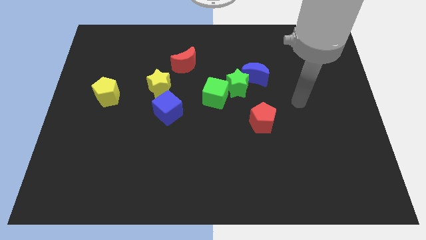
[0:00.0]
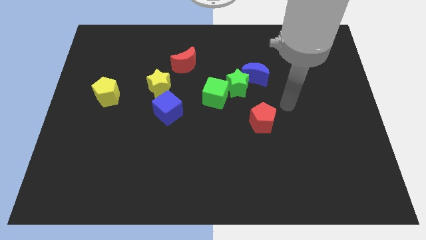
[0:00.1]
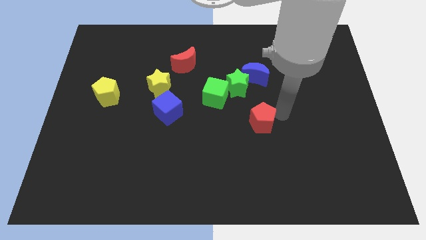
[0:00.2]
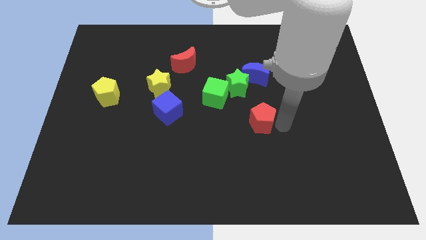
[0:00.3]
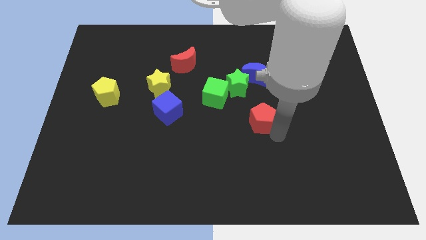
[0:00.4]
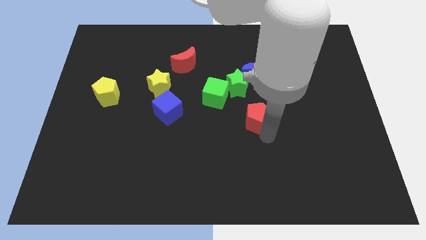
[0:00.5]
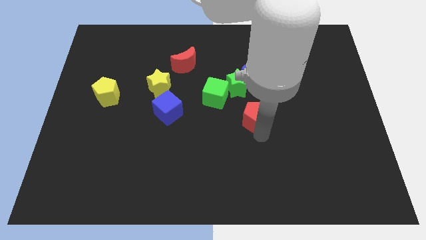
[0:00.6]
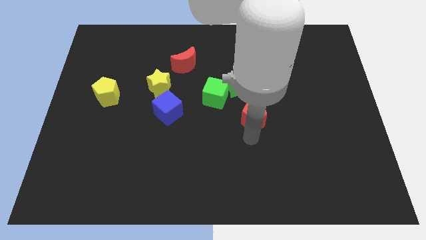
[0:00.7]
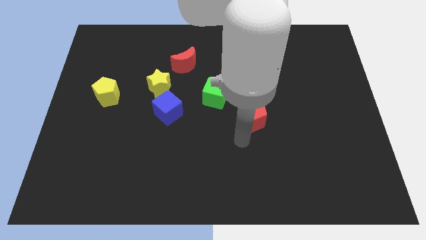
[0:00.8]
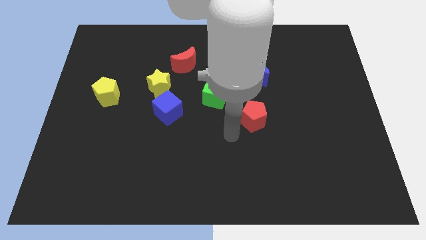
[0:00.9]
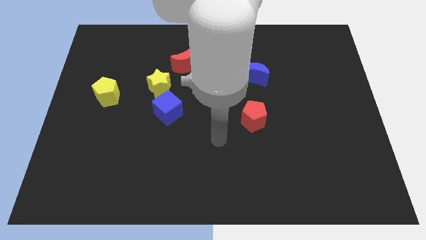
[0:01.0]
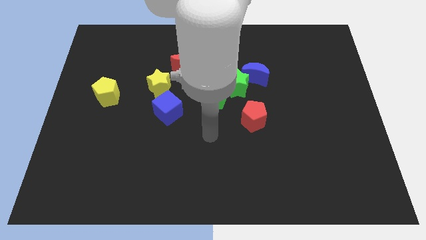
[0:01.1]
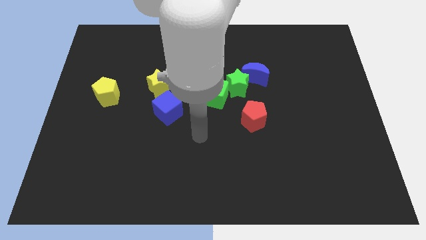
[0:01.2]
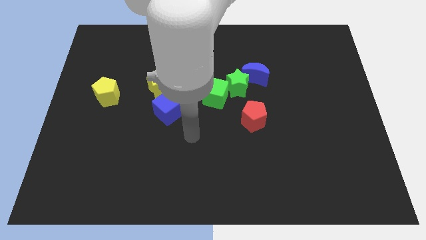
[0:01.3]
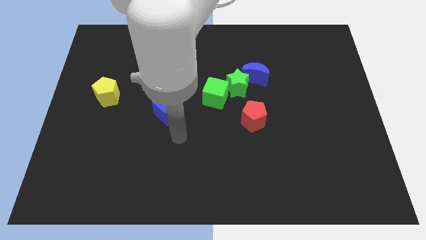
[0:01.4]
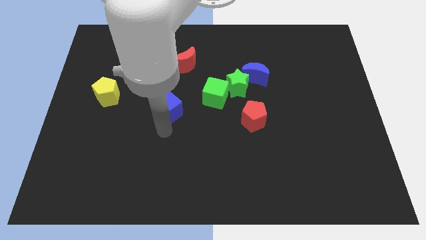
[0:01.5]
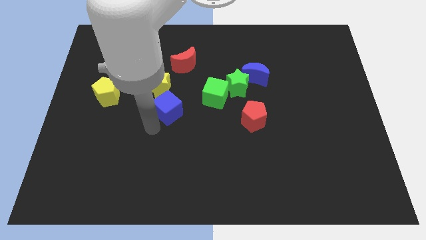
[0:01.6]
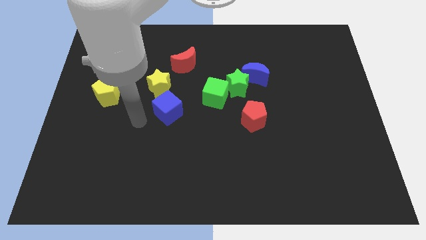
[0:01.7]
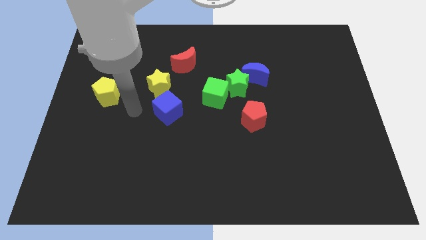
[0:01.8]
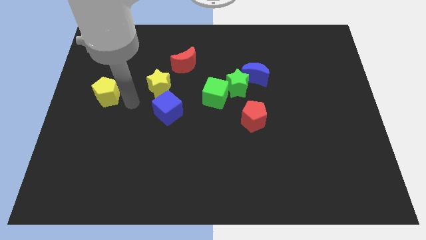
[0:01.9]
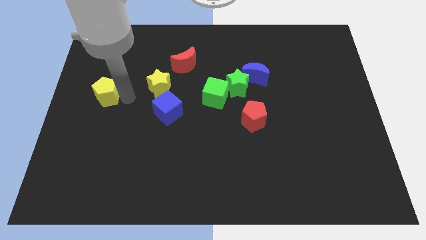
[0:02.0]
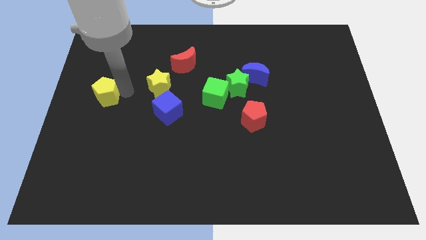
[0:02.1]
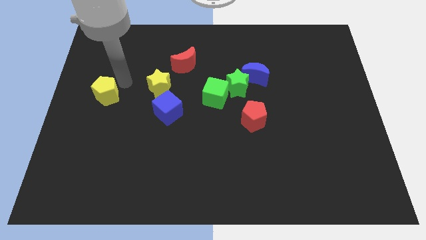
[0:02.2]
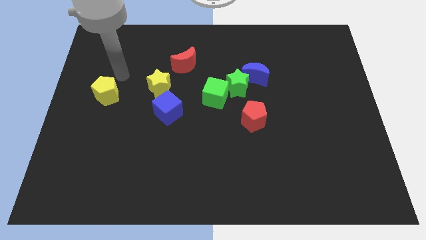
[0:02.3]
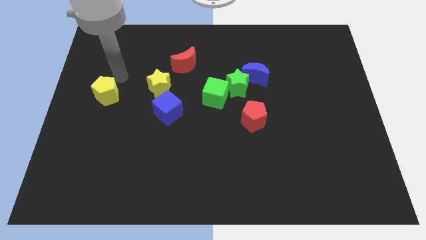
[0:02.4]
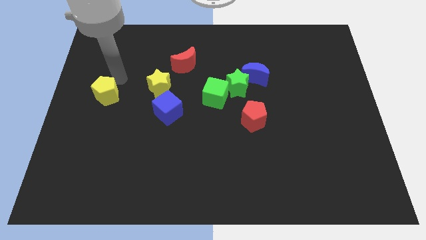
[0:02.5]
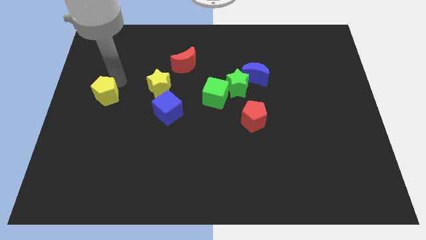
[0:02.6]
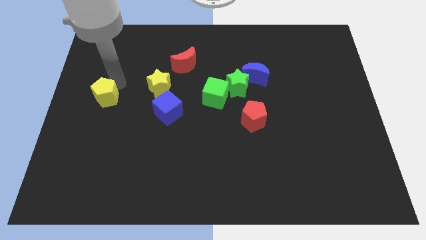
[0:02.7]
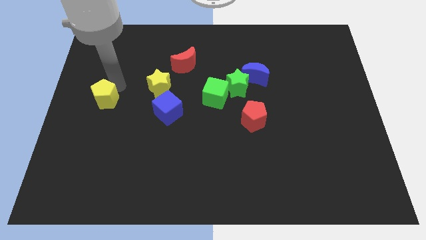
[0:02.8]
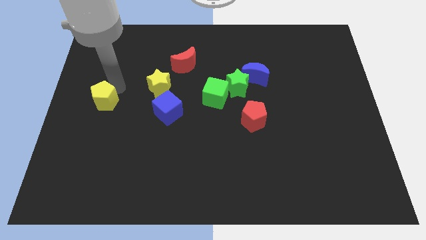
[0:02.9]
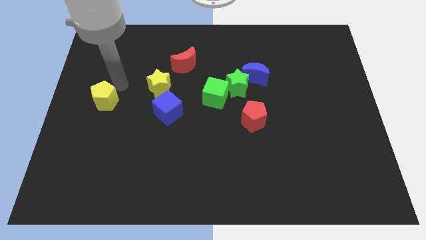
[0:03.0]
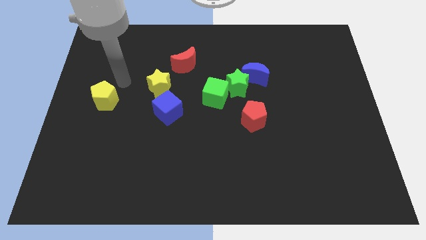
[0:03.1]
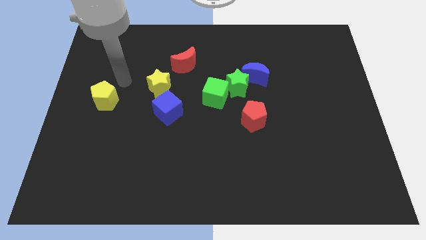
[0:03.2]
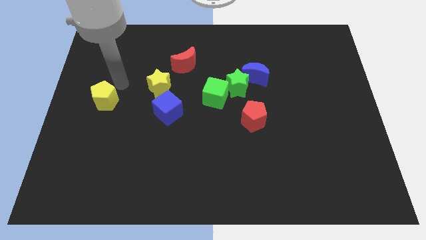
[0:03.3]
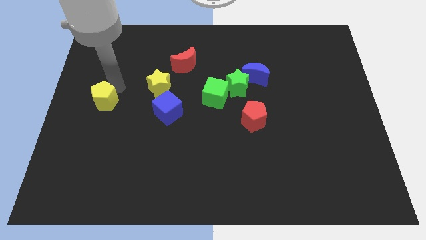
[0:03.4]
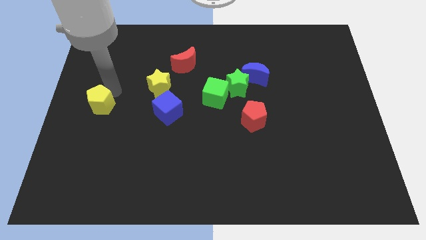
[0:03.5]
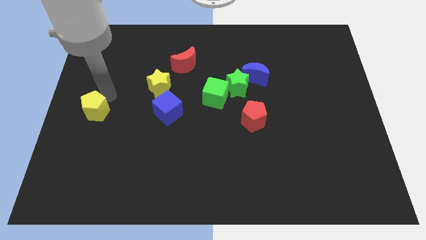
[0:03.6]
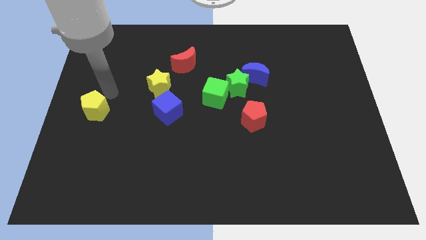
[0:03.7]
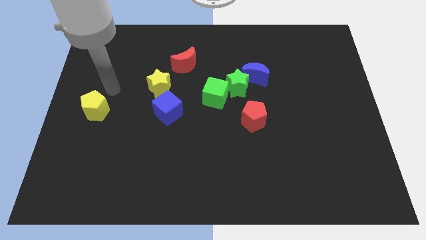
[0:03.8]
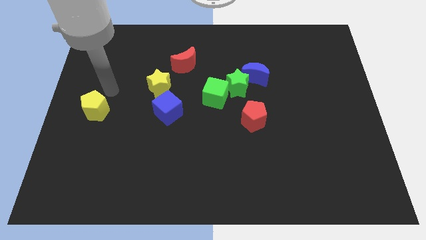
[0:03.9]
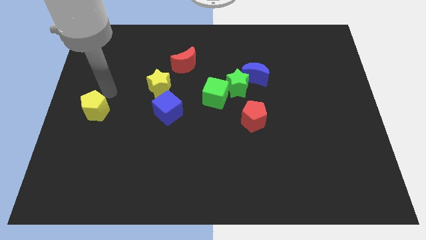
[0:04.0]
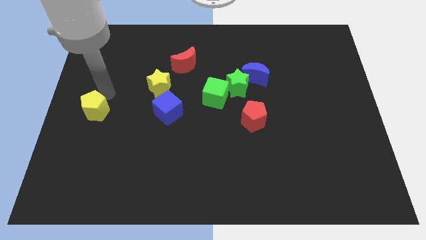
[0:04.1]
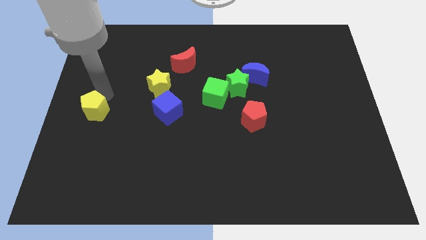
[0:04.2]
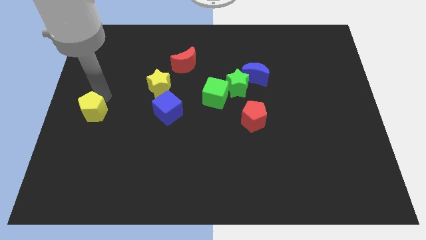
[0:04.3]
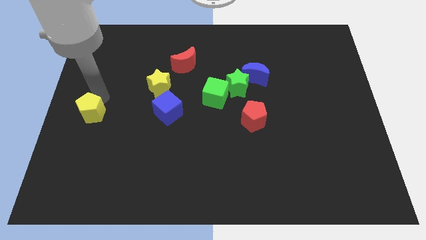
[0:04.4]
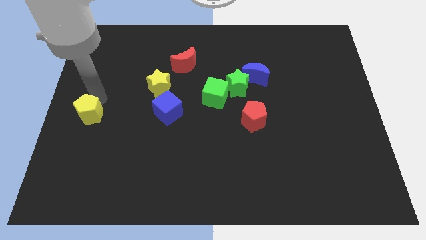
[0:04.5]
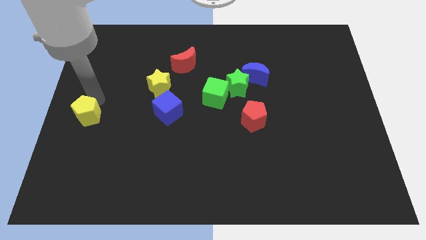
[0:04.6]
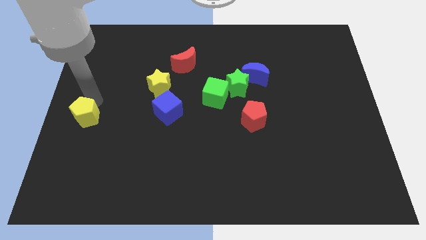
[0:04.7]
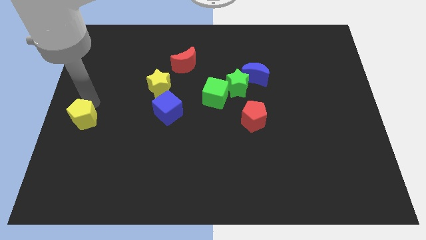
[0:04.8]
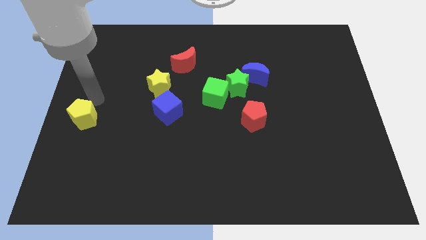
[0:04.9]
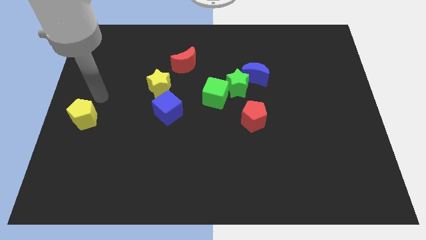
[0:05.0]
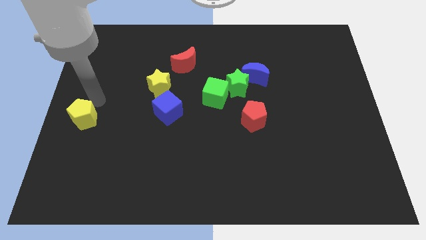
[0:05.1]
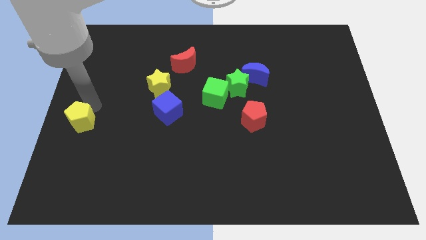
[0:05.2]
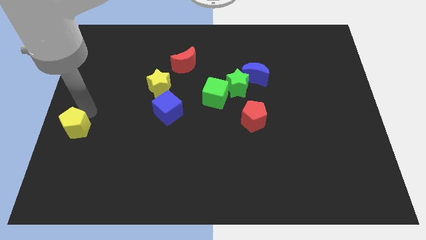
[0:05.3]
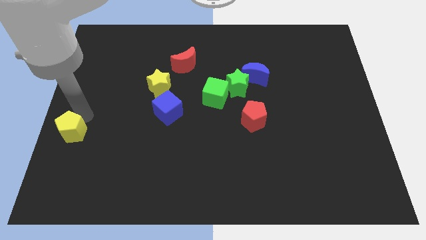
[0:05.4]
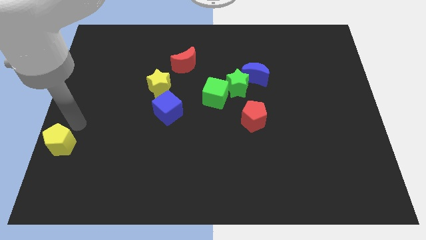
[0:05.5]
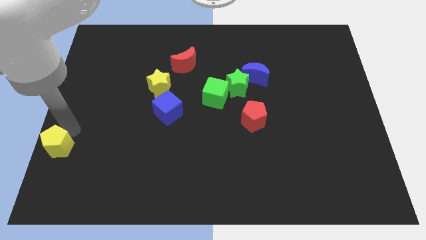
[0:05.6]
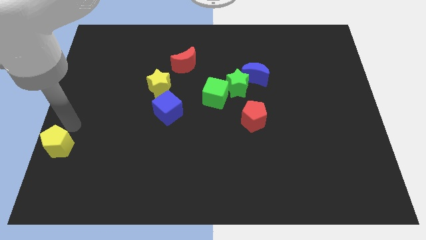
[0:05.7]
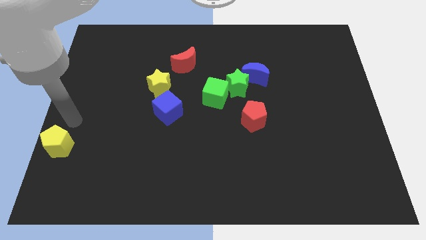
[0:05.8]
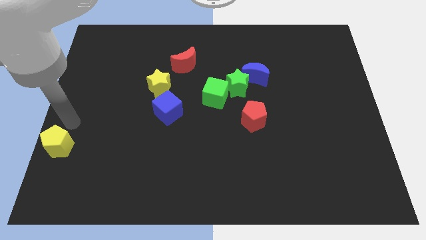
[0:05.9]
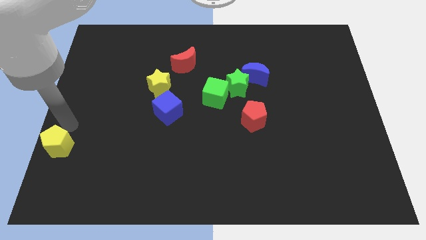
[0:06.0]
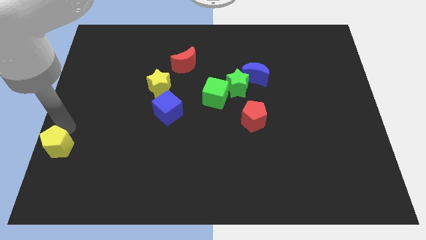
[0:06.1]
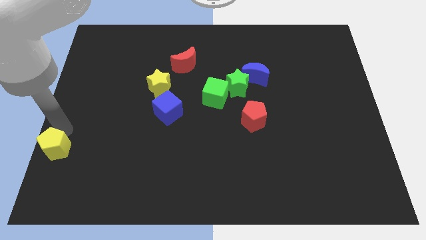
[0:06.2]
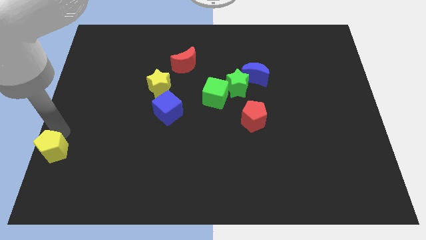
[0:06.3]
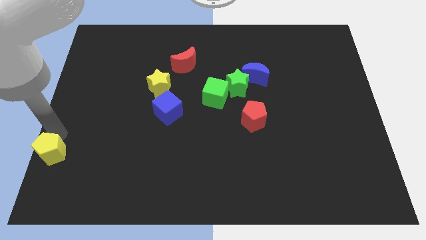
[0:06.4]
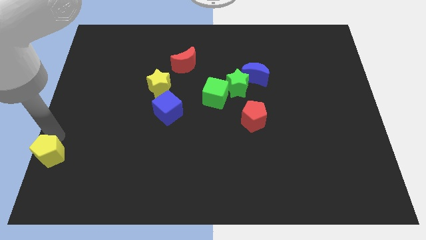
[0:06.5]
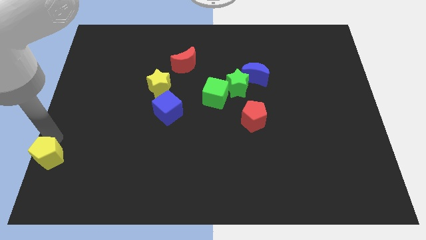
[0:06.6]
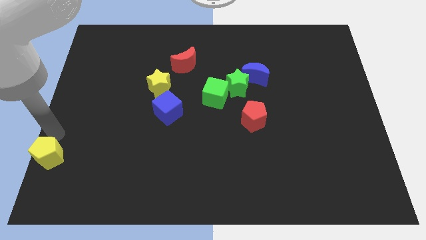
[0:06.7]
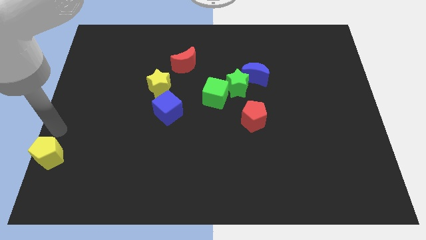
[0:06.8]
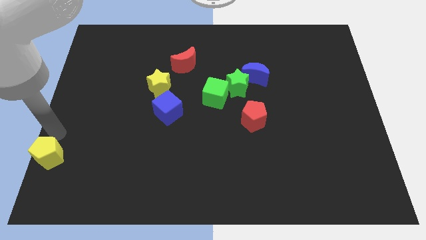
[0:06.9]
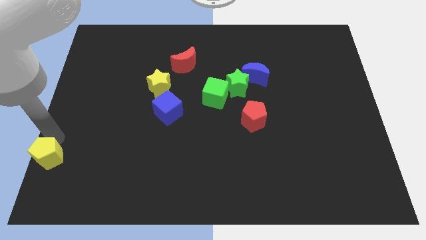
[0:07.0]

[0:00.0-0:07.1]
put the yellow pentagon to the bottom left
